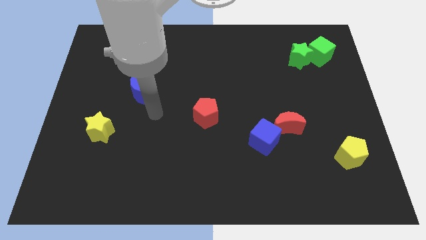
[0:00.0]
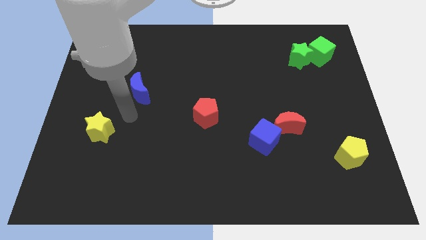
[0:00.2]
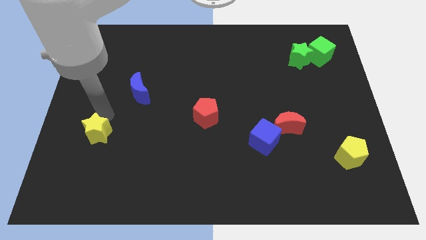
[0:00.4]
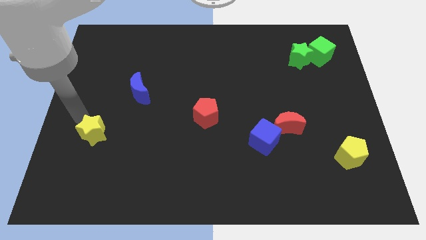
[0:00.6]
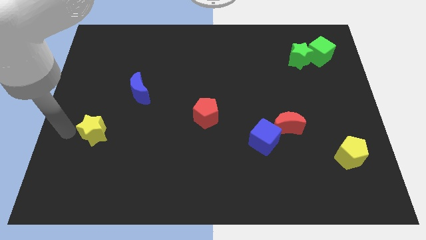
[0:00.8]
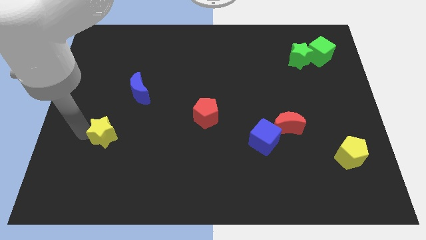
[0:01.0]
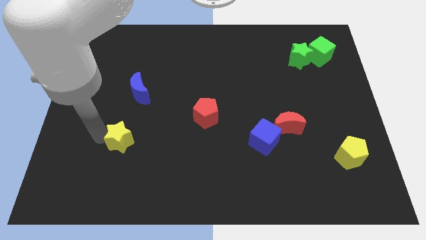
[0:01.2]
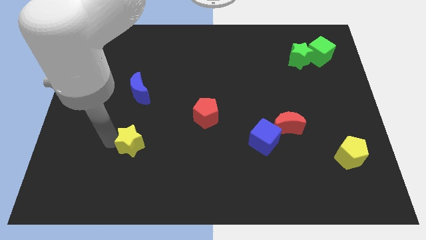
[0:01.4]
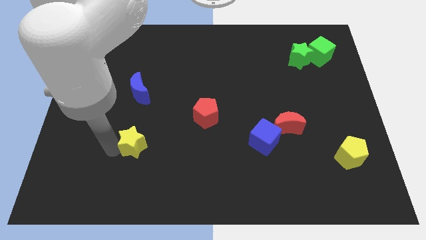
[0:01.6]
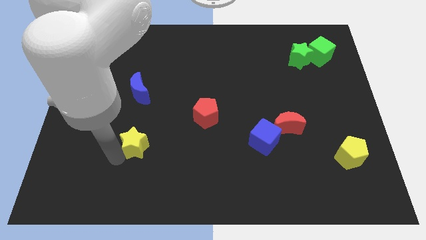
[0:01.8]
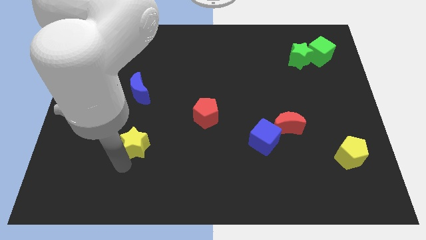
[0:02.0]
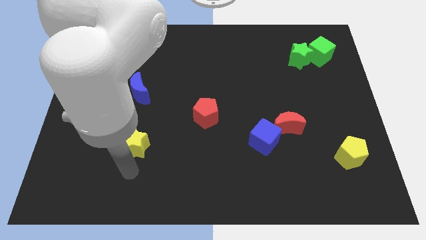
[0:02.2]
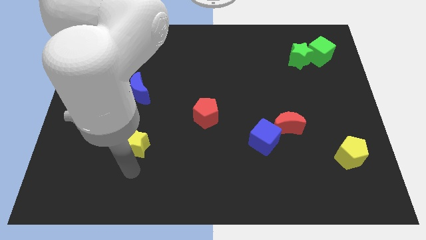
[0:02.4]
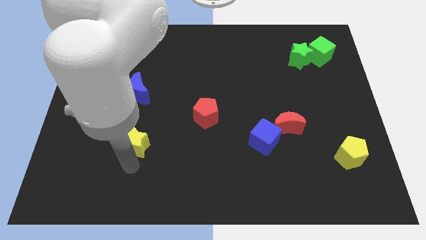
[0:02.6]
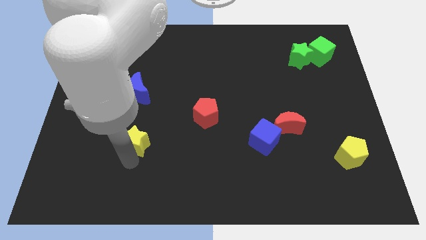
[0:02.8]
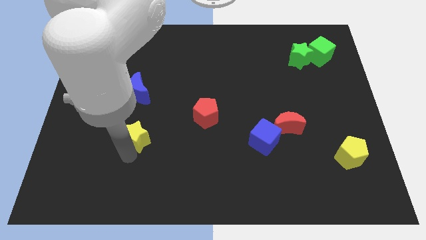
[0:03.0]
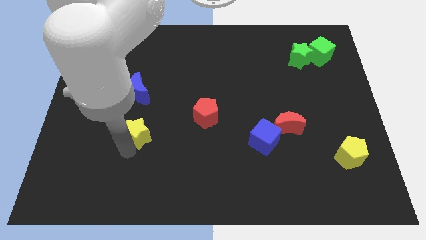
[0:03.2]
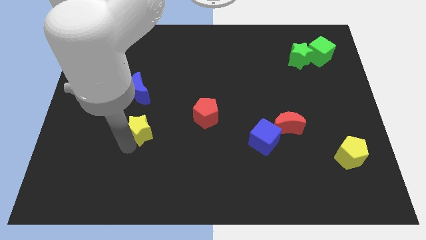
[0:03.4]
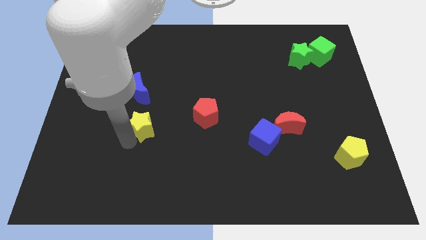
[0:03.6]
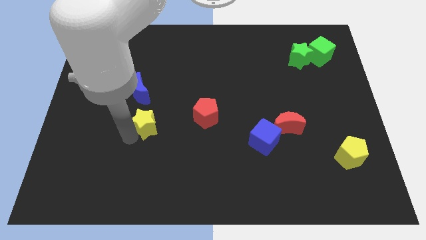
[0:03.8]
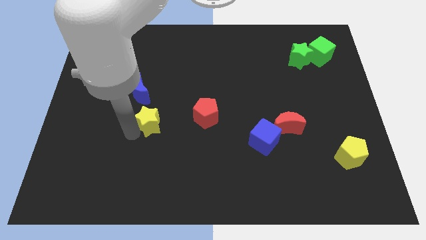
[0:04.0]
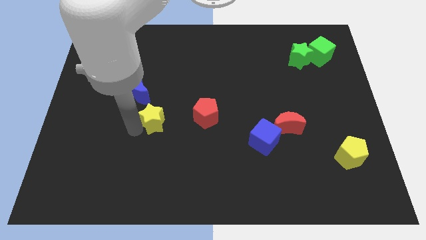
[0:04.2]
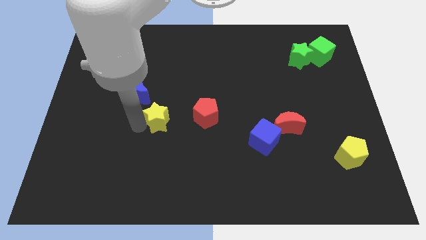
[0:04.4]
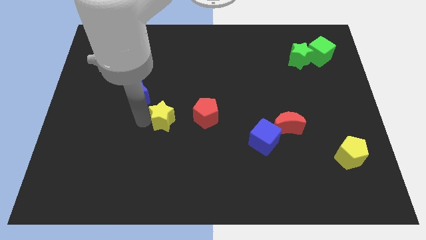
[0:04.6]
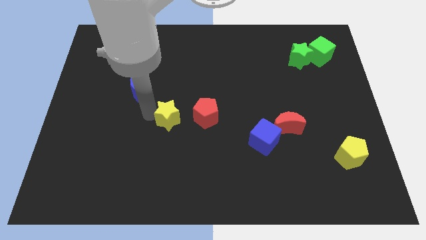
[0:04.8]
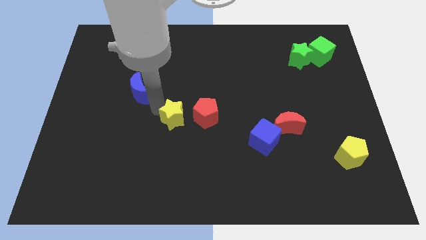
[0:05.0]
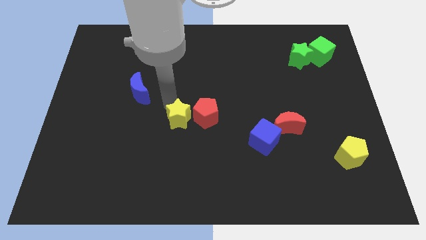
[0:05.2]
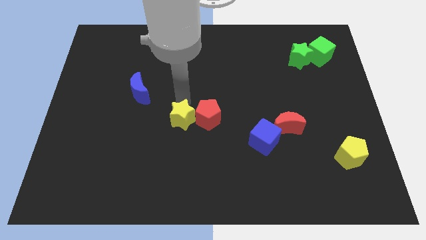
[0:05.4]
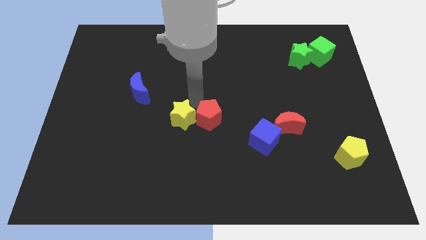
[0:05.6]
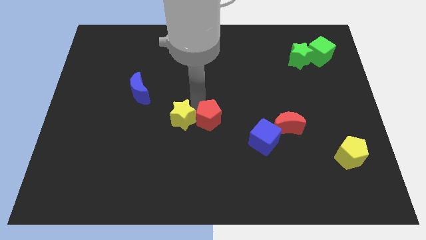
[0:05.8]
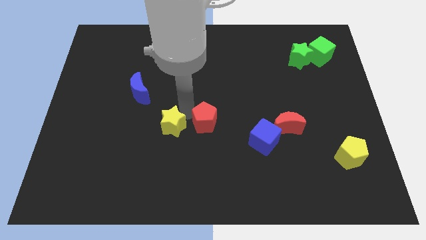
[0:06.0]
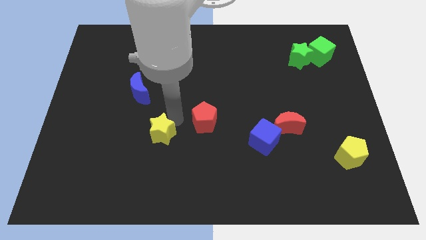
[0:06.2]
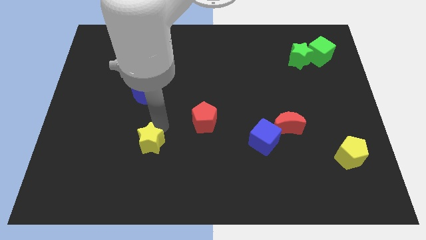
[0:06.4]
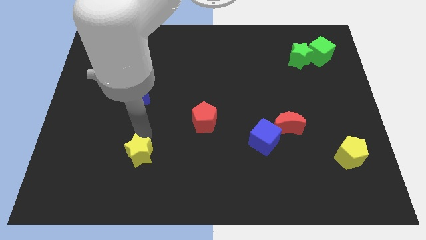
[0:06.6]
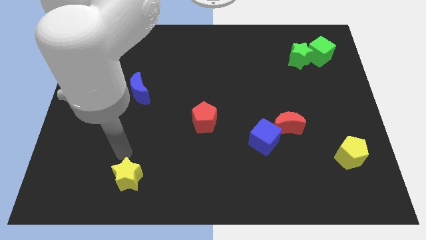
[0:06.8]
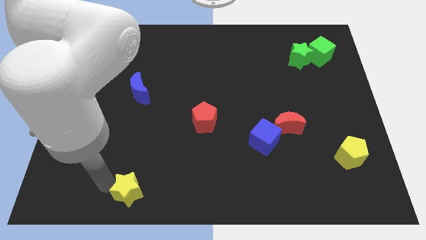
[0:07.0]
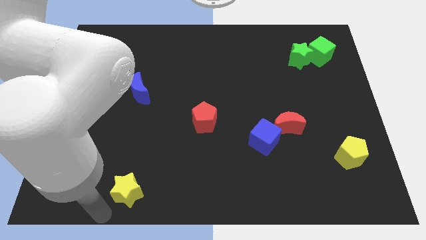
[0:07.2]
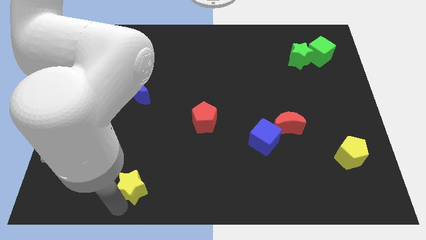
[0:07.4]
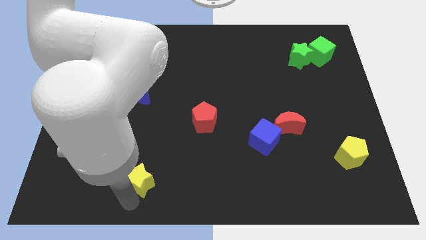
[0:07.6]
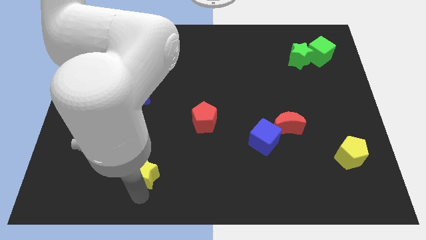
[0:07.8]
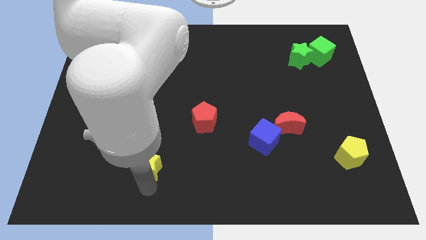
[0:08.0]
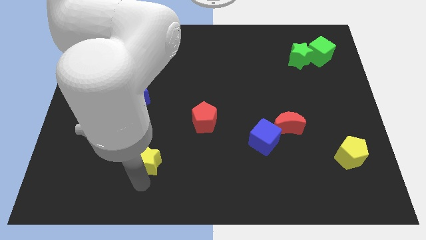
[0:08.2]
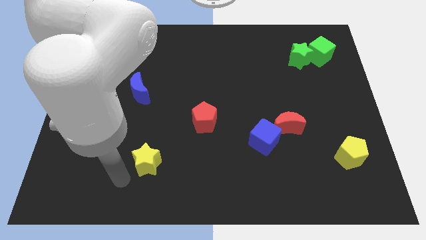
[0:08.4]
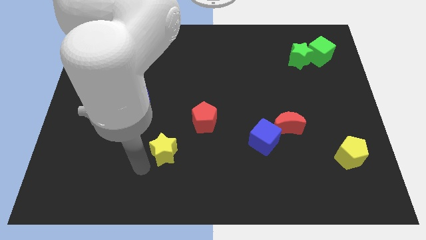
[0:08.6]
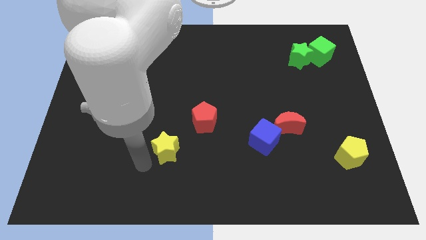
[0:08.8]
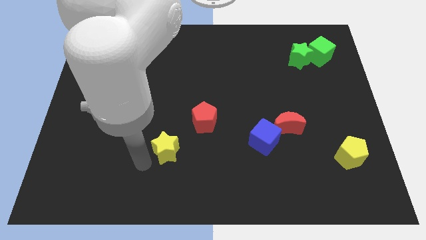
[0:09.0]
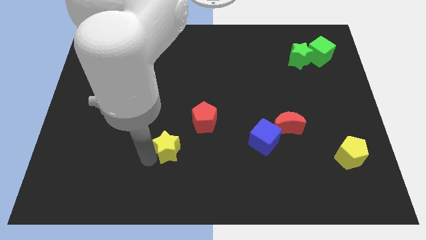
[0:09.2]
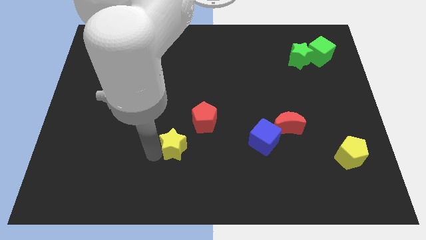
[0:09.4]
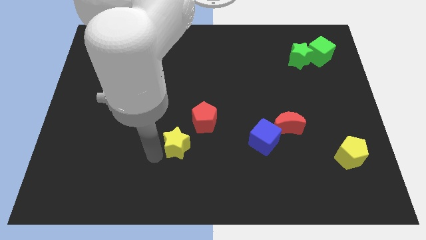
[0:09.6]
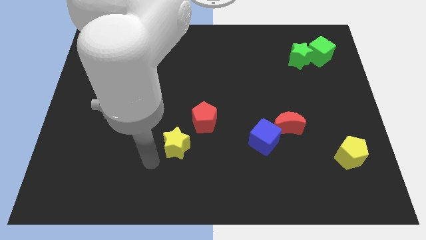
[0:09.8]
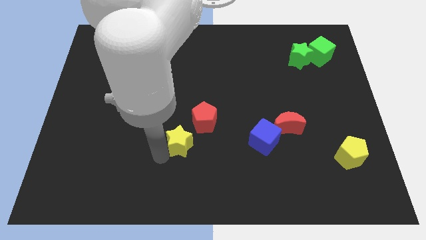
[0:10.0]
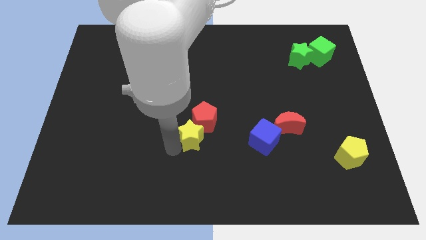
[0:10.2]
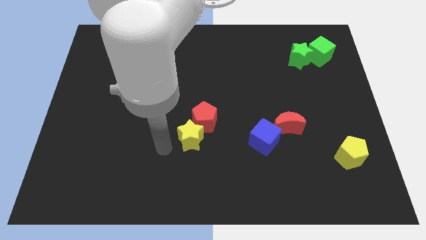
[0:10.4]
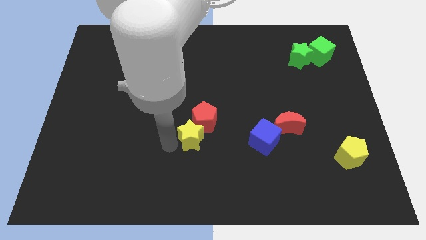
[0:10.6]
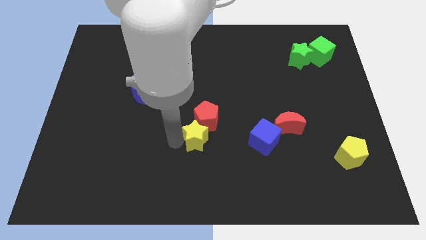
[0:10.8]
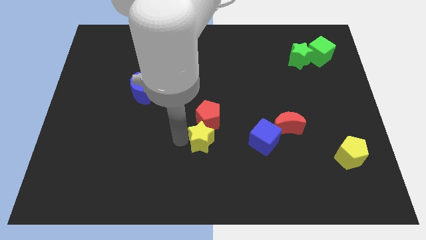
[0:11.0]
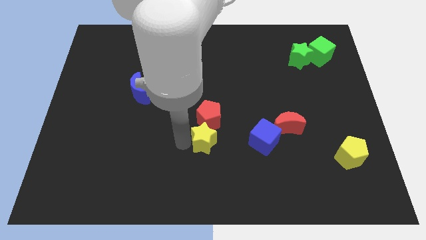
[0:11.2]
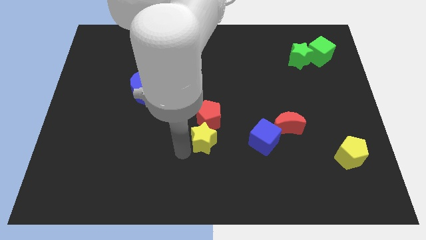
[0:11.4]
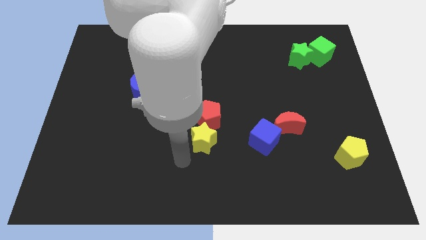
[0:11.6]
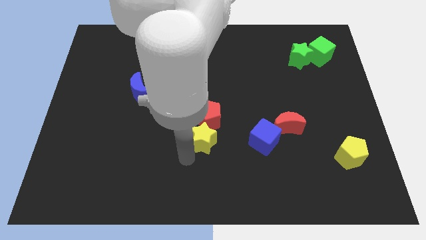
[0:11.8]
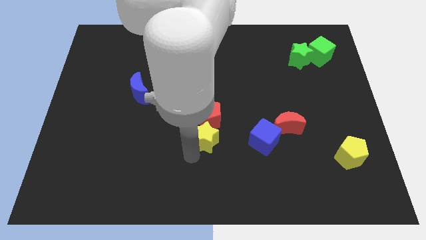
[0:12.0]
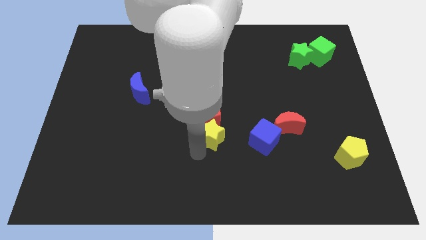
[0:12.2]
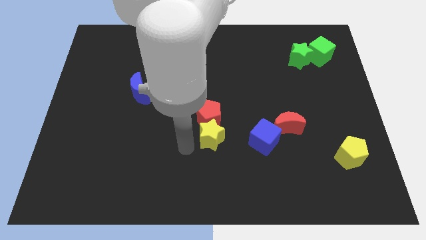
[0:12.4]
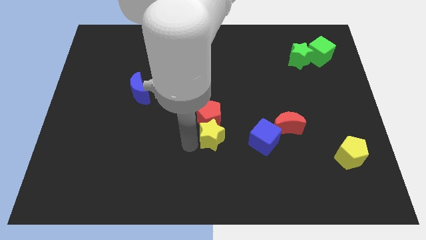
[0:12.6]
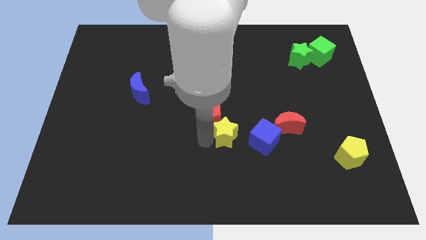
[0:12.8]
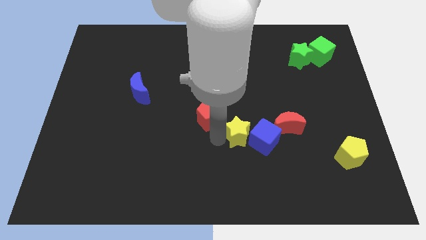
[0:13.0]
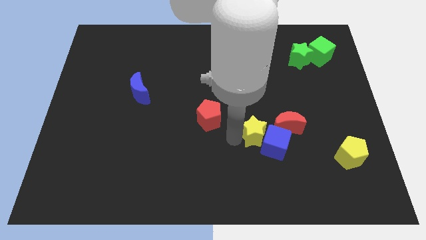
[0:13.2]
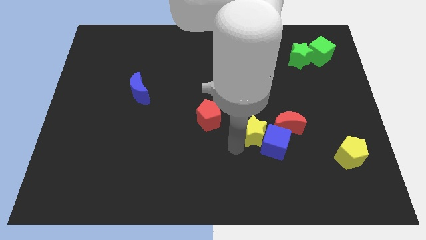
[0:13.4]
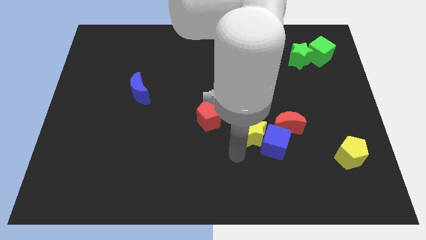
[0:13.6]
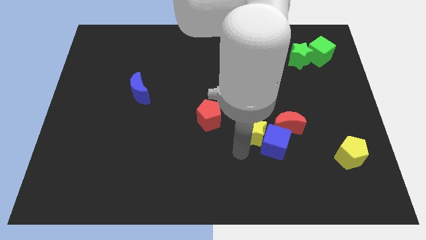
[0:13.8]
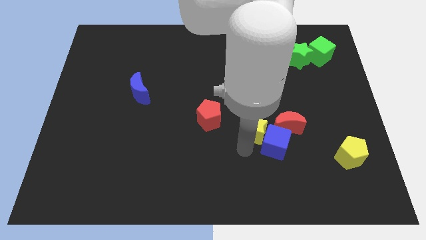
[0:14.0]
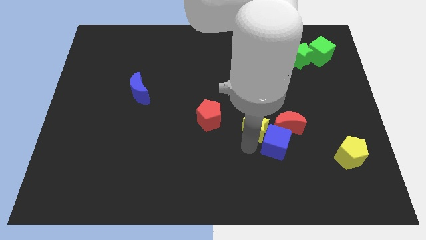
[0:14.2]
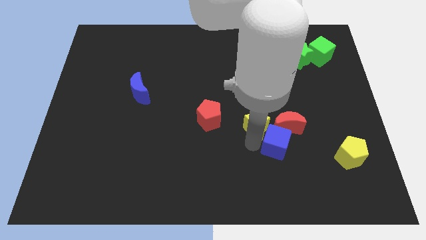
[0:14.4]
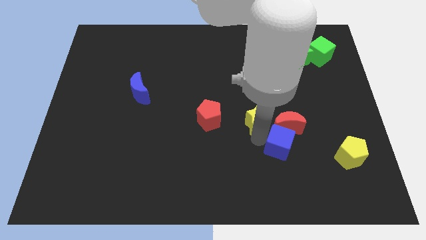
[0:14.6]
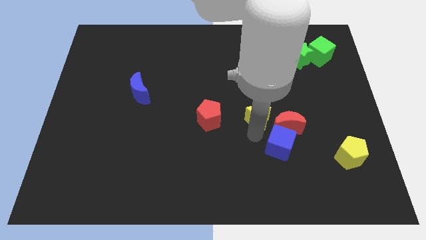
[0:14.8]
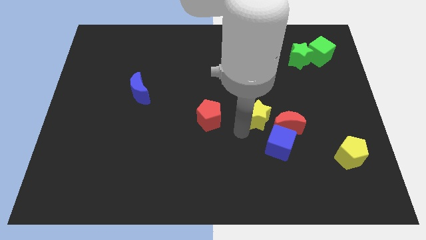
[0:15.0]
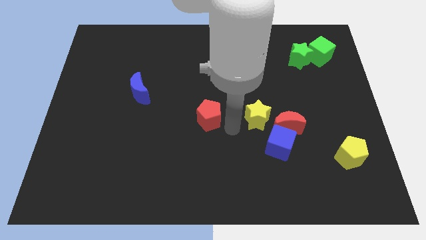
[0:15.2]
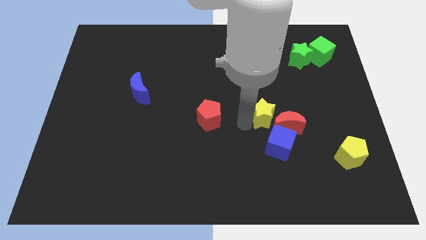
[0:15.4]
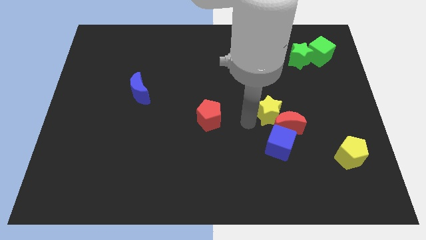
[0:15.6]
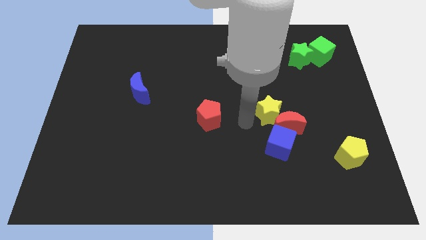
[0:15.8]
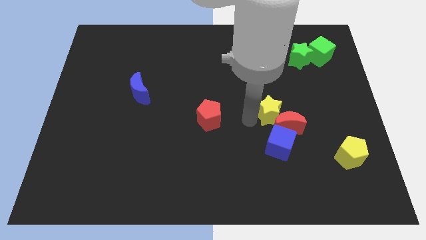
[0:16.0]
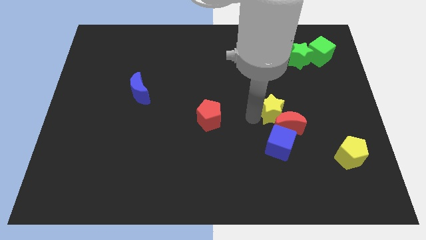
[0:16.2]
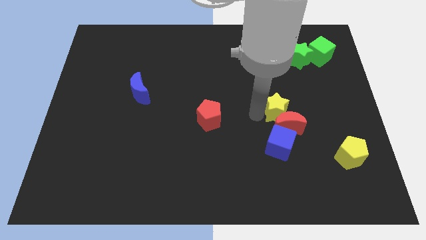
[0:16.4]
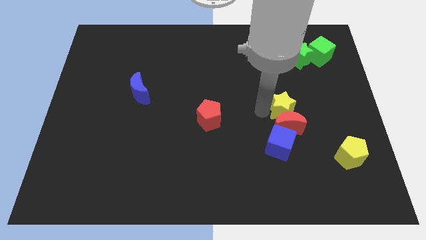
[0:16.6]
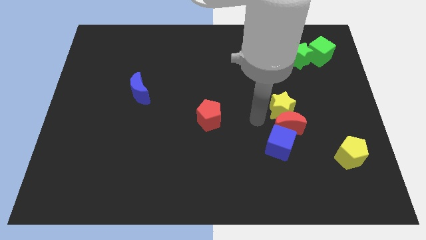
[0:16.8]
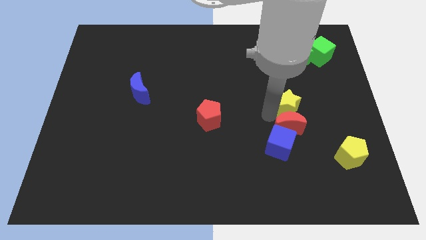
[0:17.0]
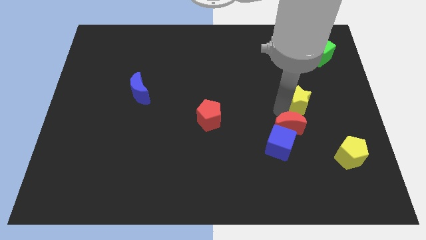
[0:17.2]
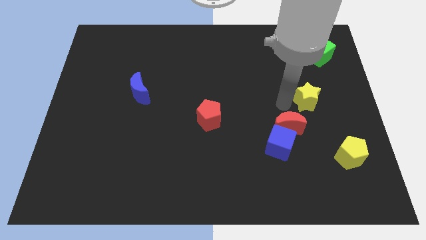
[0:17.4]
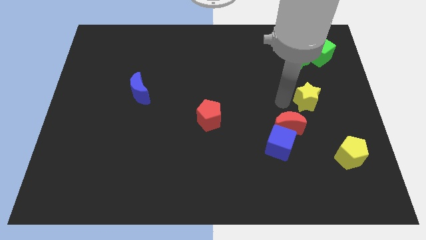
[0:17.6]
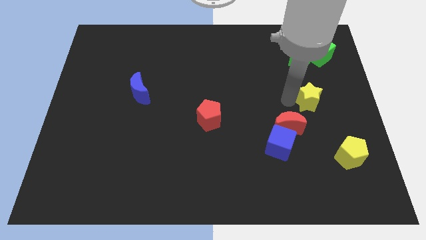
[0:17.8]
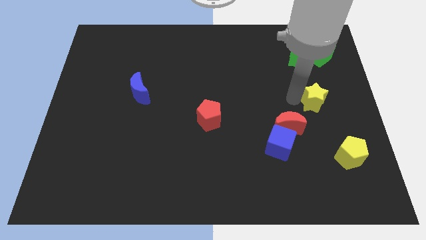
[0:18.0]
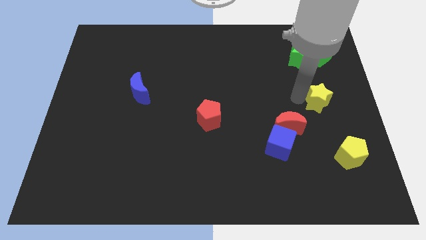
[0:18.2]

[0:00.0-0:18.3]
slide the yellow star to the right side of the board
